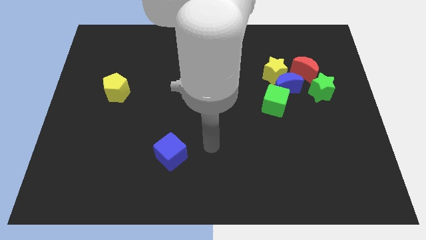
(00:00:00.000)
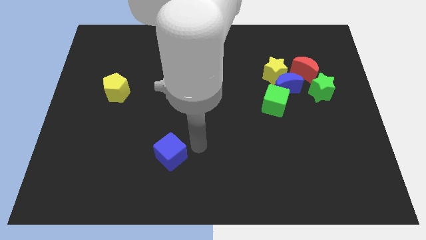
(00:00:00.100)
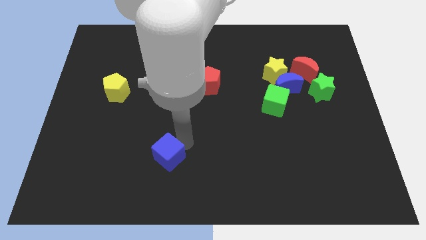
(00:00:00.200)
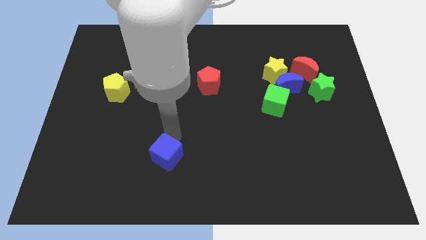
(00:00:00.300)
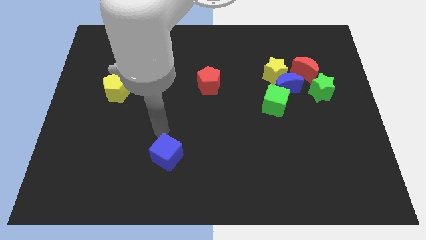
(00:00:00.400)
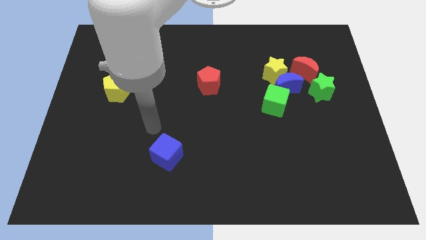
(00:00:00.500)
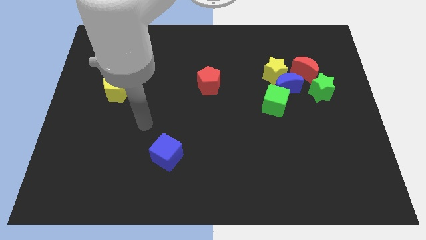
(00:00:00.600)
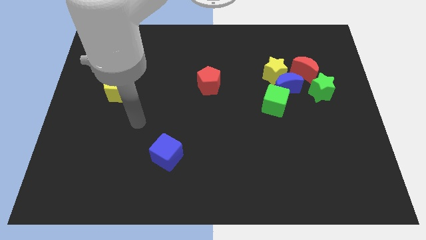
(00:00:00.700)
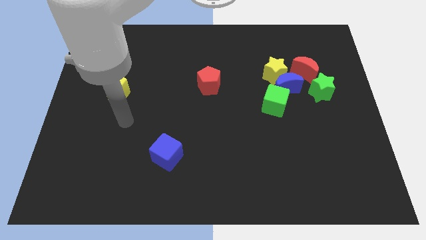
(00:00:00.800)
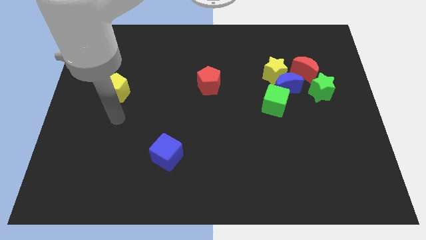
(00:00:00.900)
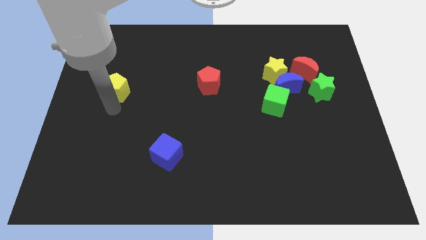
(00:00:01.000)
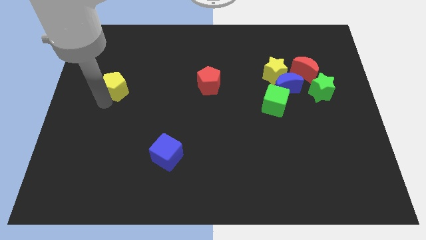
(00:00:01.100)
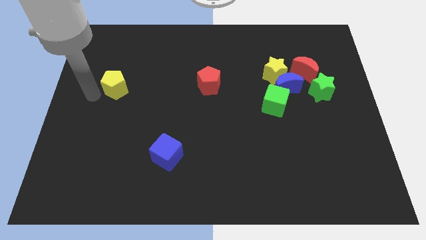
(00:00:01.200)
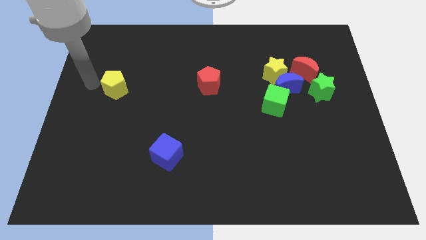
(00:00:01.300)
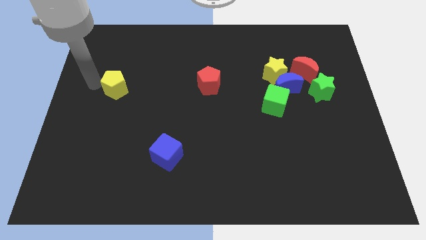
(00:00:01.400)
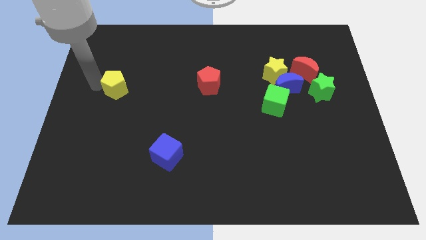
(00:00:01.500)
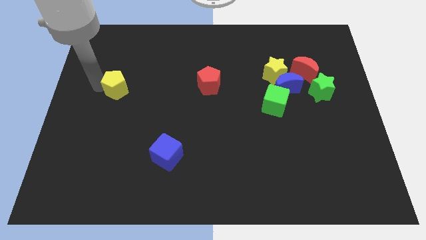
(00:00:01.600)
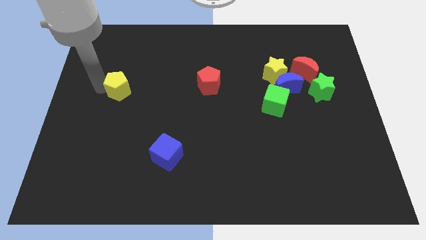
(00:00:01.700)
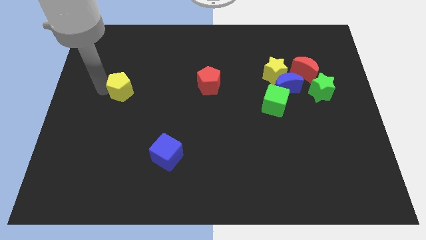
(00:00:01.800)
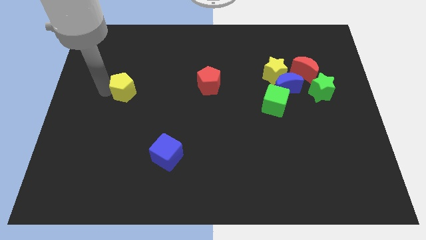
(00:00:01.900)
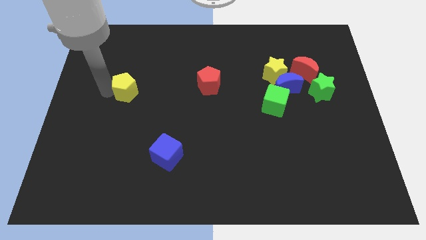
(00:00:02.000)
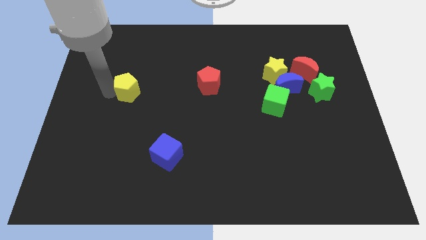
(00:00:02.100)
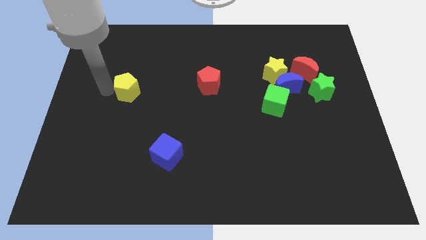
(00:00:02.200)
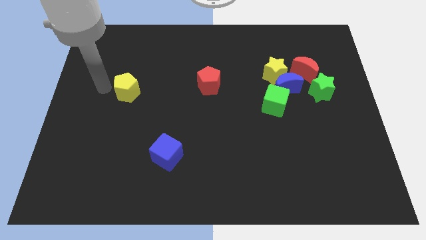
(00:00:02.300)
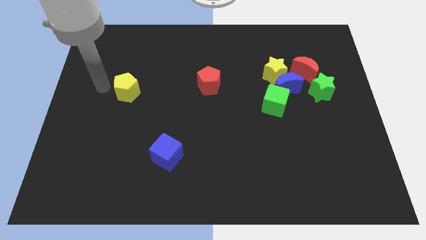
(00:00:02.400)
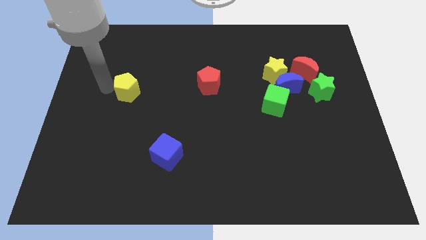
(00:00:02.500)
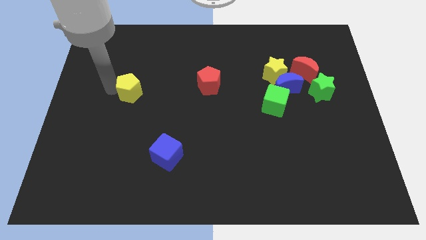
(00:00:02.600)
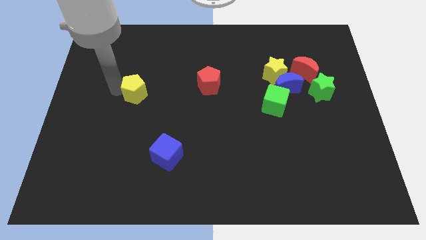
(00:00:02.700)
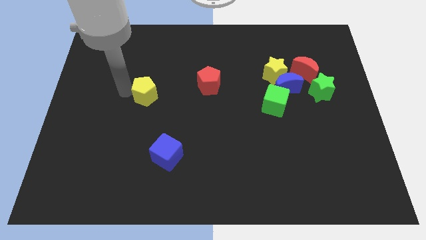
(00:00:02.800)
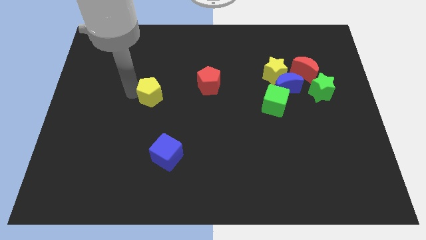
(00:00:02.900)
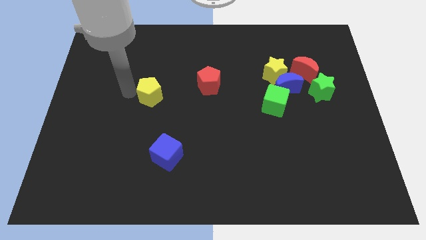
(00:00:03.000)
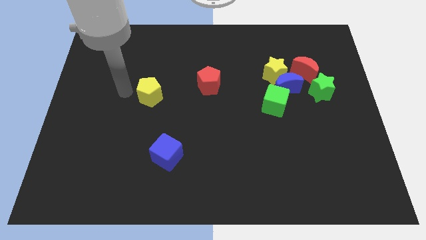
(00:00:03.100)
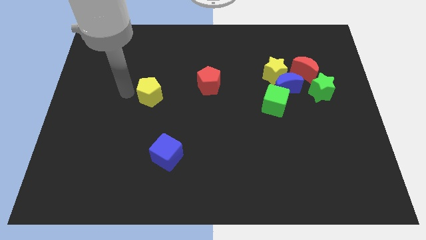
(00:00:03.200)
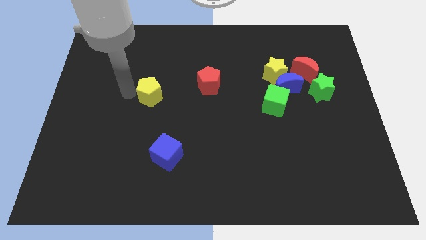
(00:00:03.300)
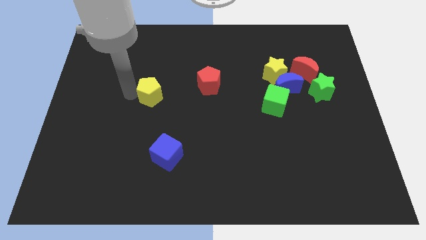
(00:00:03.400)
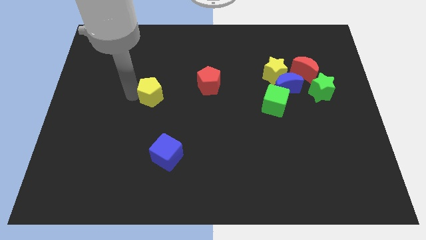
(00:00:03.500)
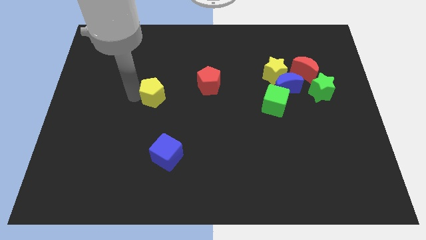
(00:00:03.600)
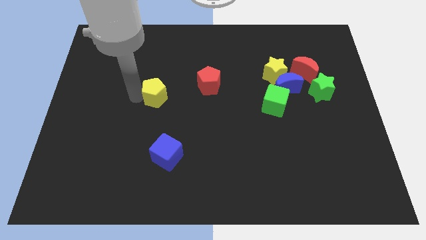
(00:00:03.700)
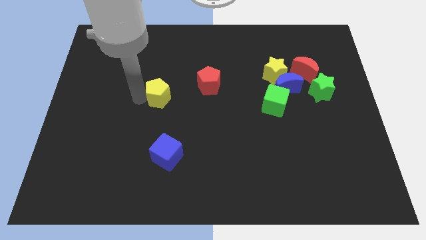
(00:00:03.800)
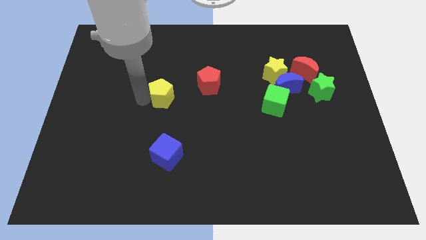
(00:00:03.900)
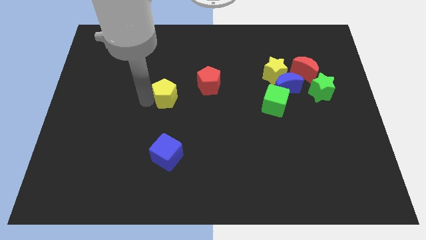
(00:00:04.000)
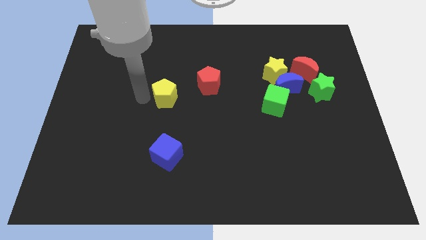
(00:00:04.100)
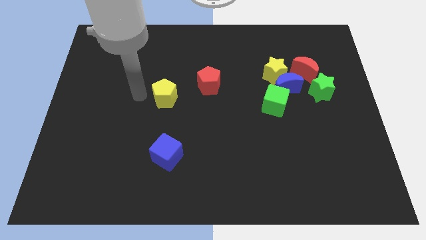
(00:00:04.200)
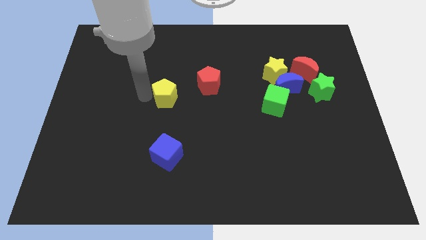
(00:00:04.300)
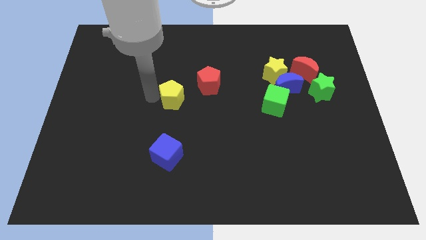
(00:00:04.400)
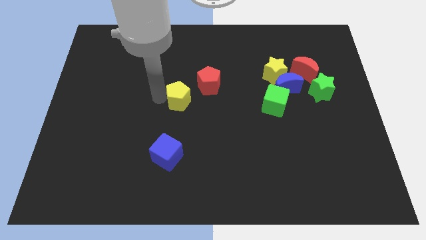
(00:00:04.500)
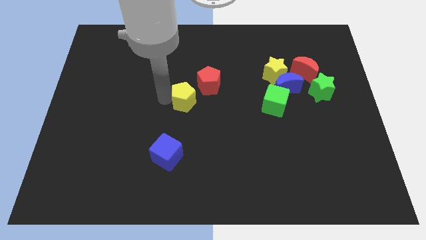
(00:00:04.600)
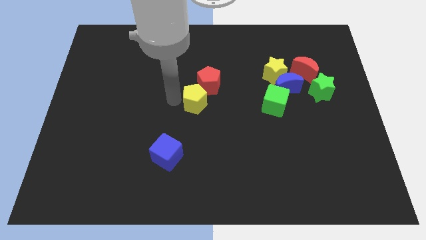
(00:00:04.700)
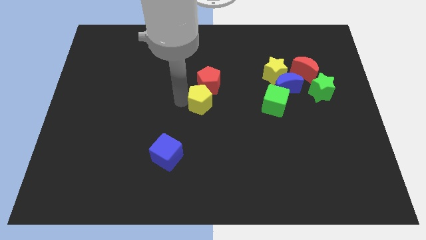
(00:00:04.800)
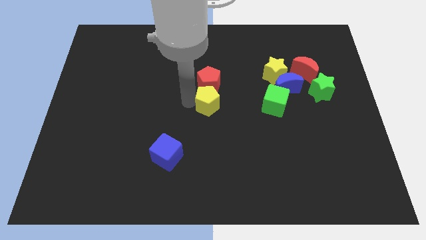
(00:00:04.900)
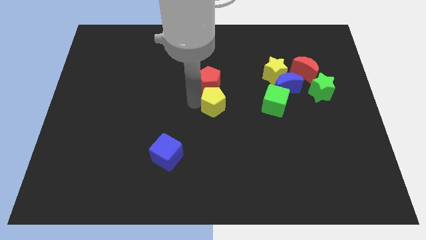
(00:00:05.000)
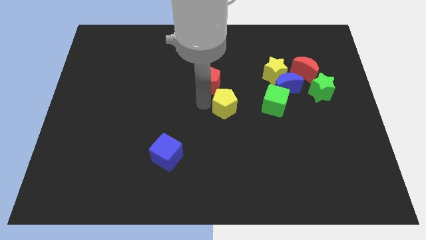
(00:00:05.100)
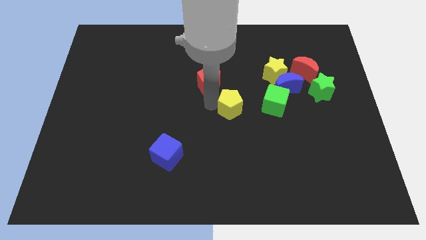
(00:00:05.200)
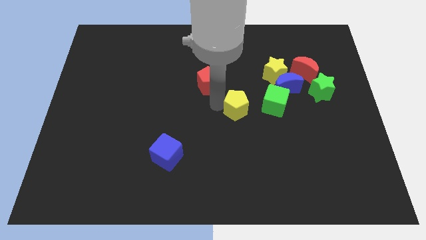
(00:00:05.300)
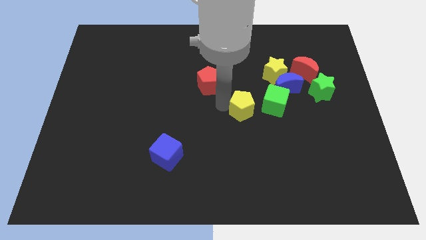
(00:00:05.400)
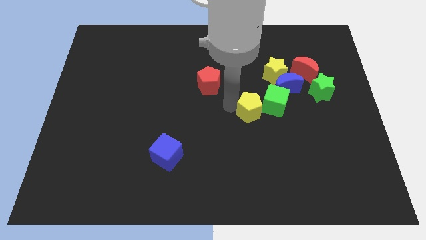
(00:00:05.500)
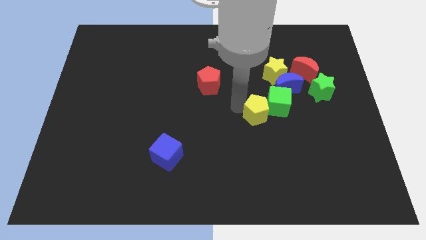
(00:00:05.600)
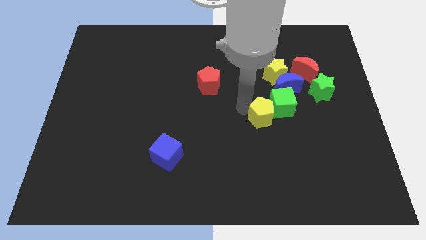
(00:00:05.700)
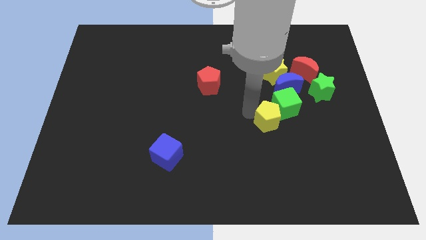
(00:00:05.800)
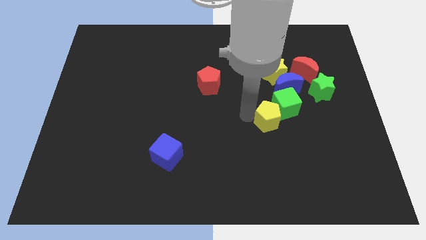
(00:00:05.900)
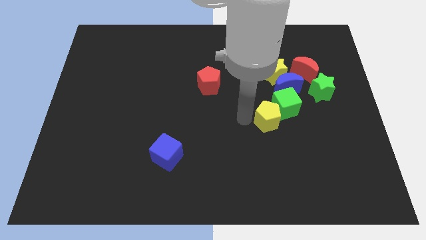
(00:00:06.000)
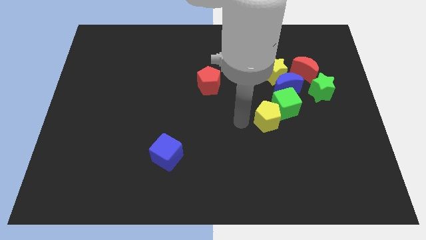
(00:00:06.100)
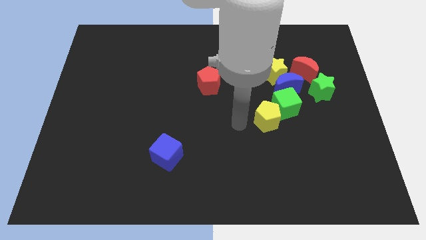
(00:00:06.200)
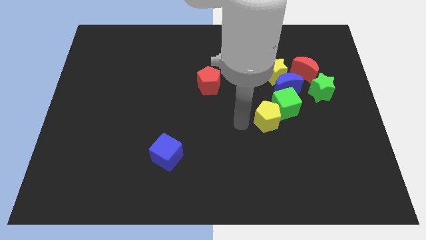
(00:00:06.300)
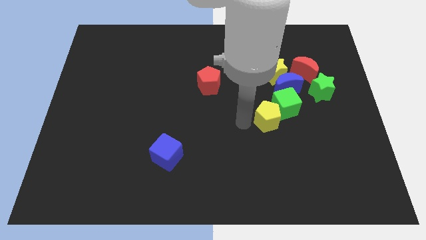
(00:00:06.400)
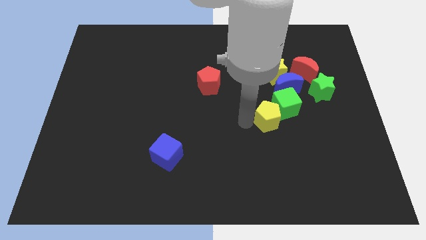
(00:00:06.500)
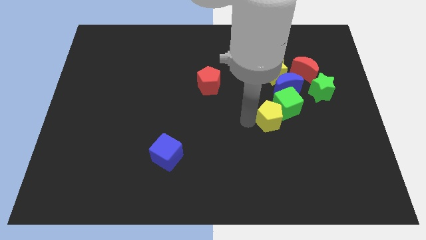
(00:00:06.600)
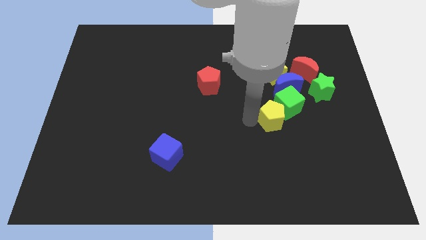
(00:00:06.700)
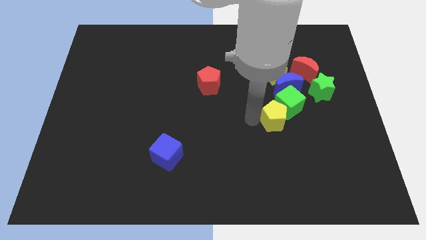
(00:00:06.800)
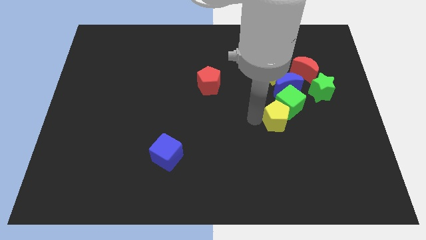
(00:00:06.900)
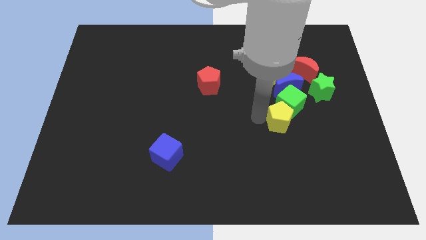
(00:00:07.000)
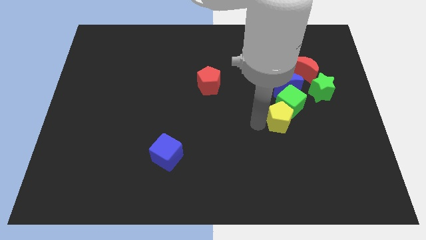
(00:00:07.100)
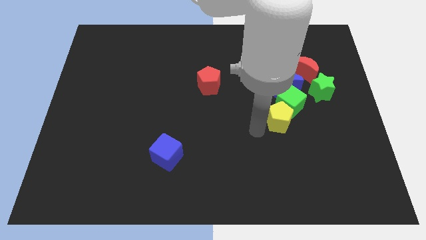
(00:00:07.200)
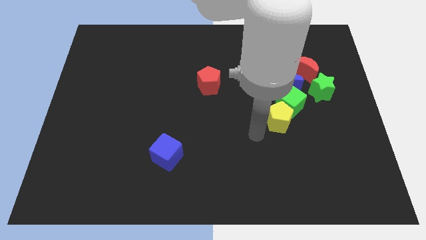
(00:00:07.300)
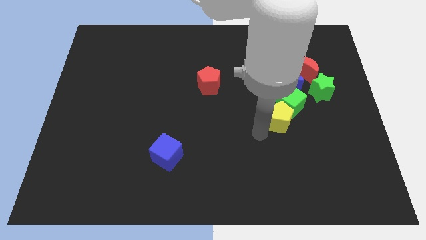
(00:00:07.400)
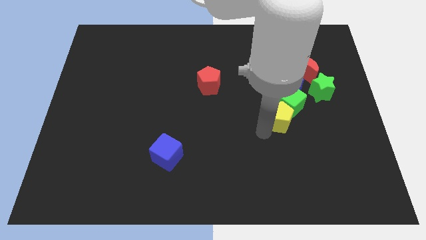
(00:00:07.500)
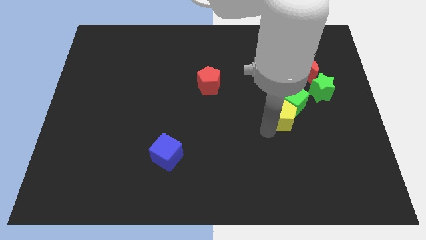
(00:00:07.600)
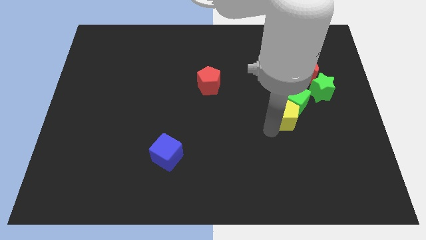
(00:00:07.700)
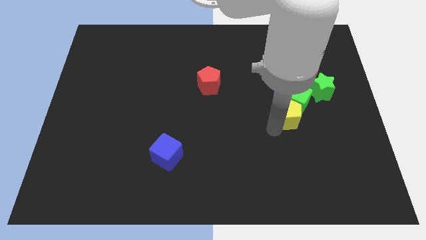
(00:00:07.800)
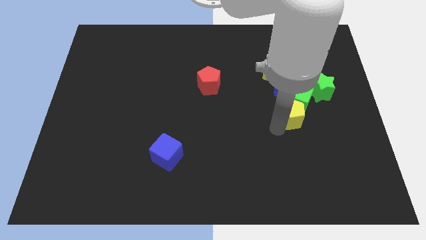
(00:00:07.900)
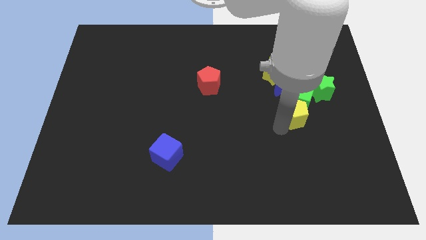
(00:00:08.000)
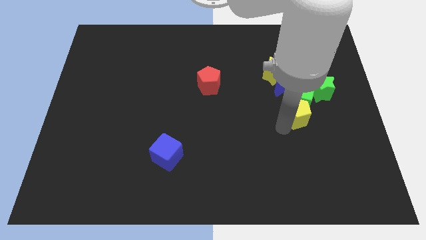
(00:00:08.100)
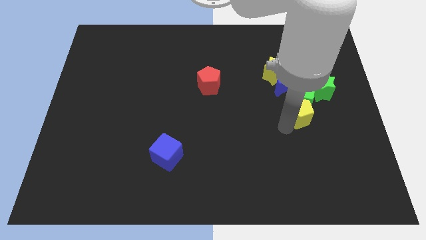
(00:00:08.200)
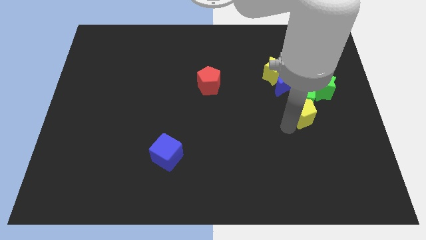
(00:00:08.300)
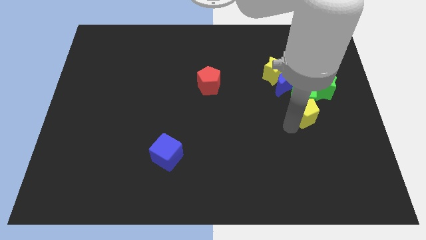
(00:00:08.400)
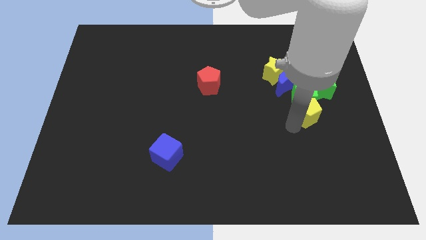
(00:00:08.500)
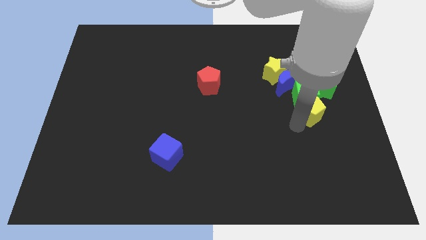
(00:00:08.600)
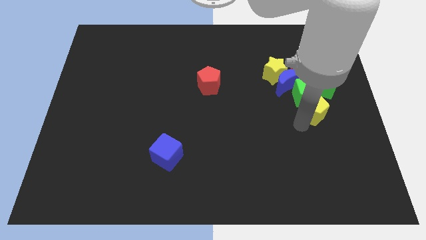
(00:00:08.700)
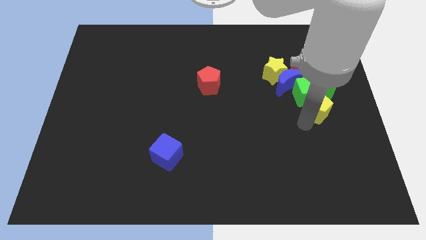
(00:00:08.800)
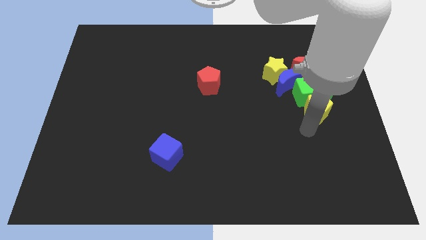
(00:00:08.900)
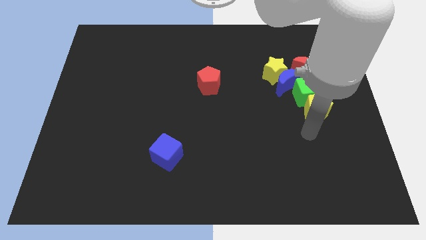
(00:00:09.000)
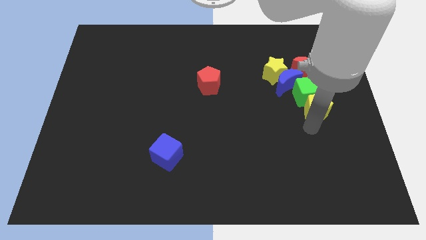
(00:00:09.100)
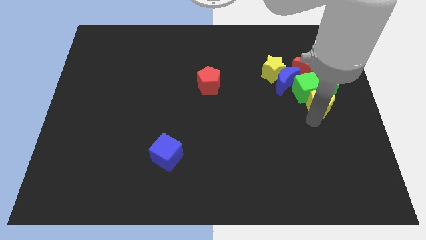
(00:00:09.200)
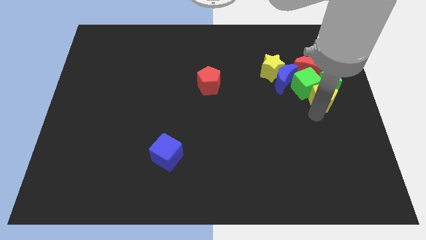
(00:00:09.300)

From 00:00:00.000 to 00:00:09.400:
put the yellow pentagon next to the green star
